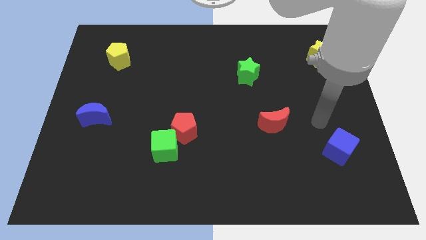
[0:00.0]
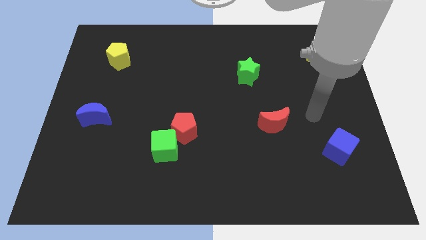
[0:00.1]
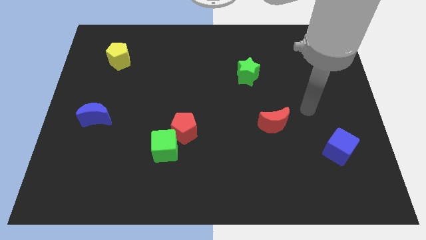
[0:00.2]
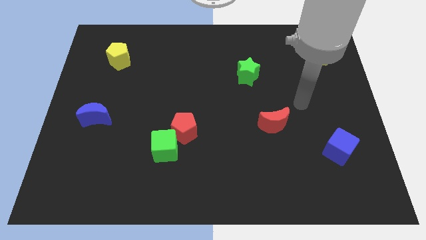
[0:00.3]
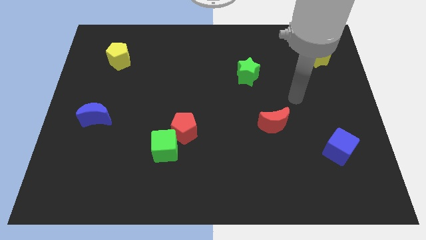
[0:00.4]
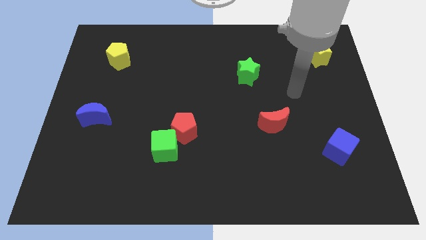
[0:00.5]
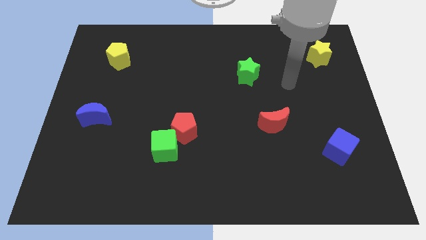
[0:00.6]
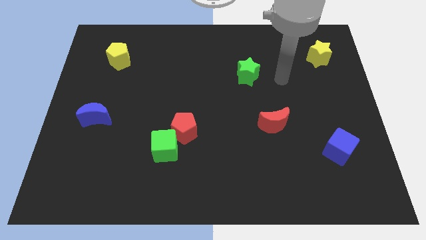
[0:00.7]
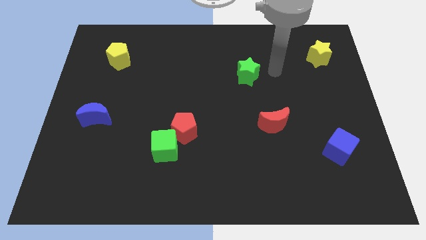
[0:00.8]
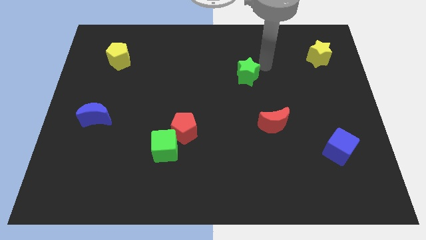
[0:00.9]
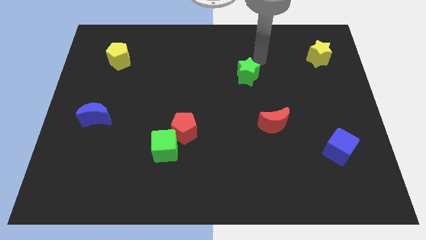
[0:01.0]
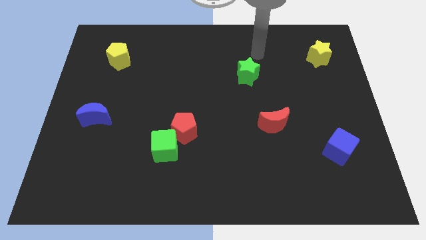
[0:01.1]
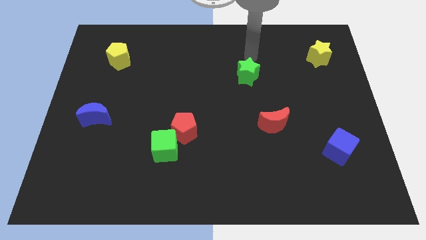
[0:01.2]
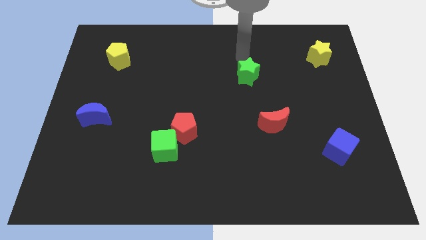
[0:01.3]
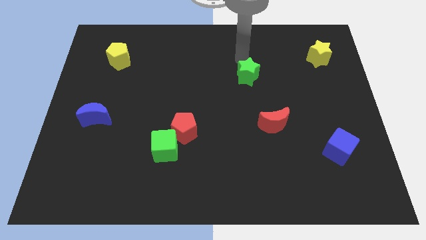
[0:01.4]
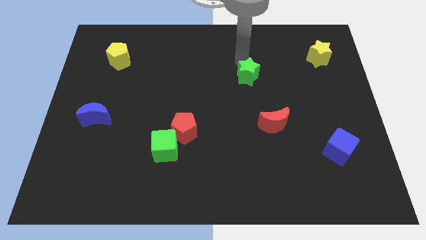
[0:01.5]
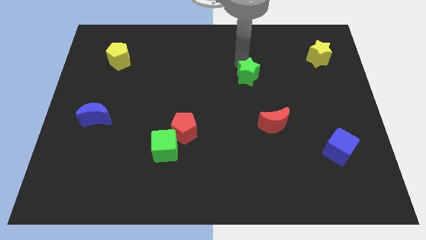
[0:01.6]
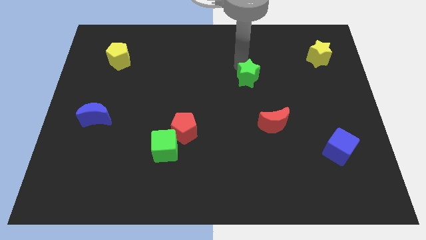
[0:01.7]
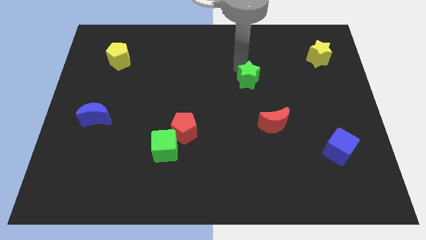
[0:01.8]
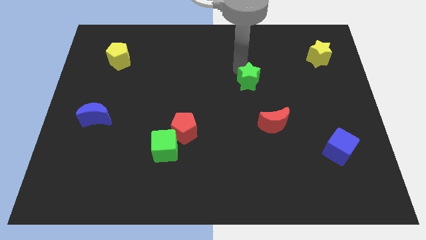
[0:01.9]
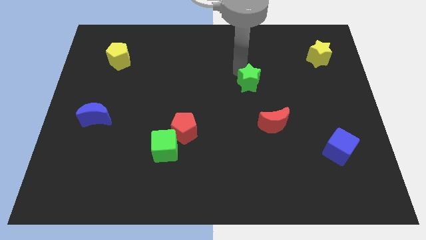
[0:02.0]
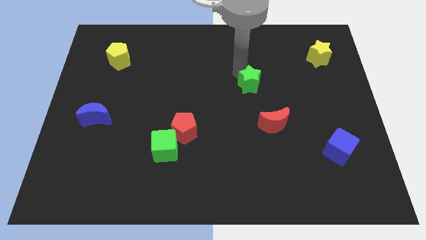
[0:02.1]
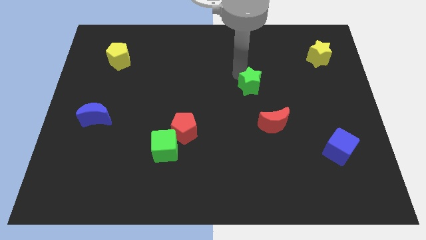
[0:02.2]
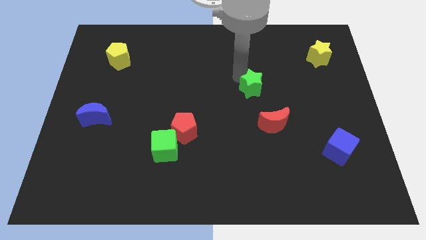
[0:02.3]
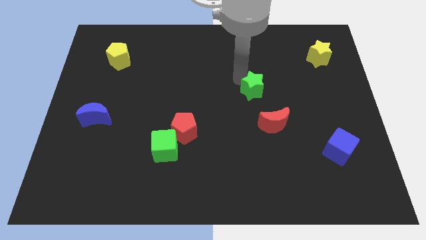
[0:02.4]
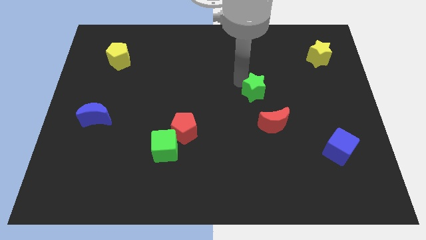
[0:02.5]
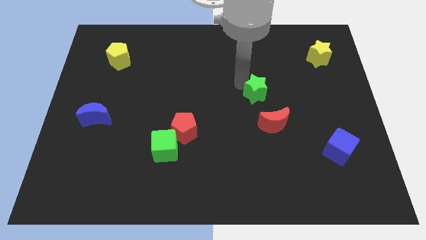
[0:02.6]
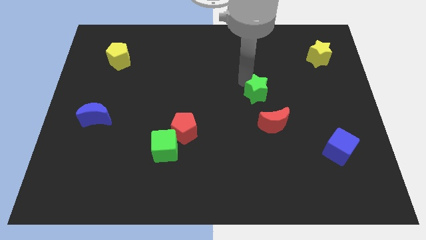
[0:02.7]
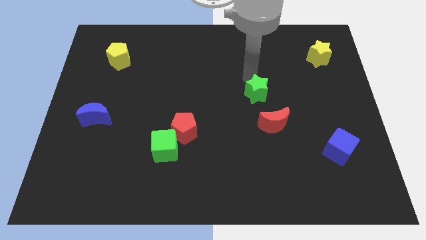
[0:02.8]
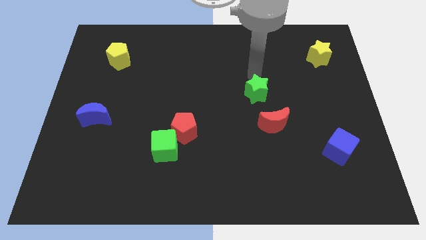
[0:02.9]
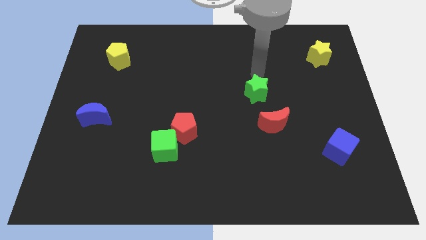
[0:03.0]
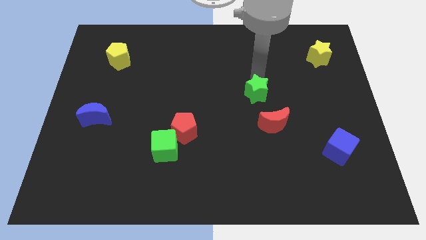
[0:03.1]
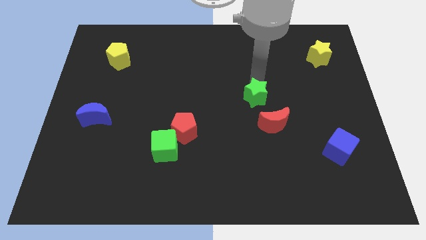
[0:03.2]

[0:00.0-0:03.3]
slide the green star a little bit downwards

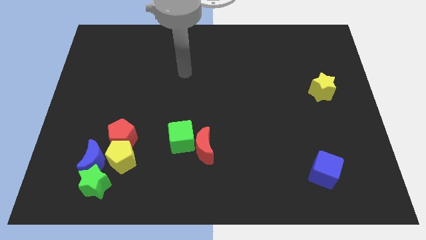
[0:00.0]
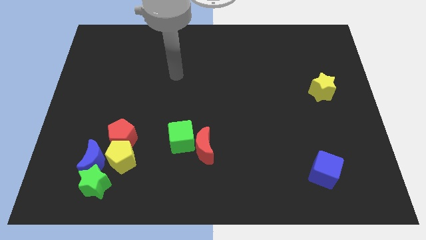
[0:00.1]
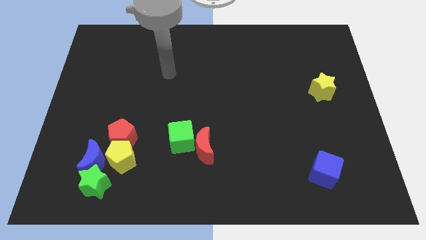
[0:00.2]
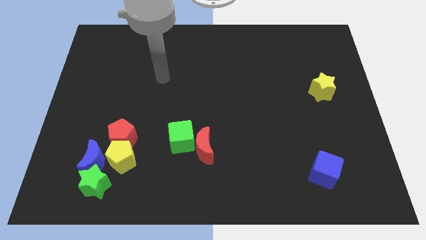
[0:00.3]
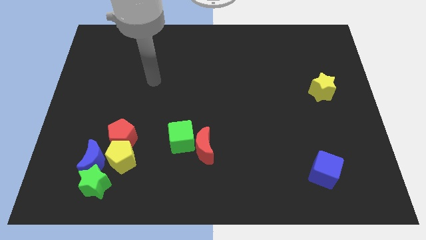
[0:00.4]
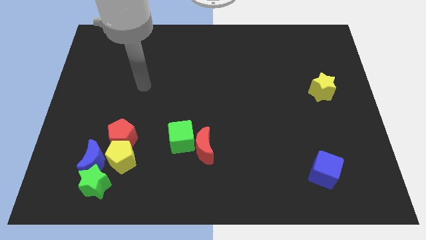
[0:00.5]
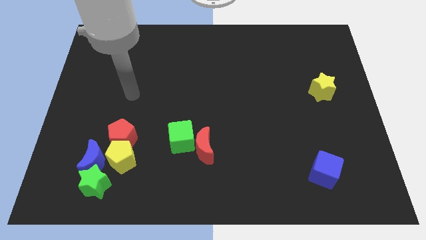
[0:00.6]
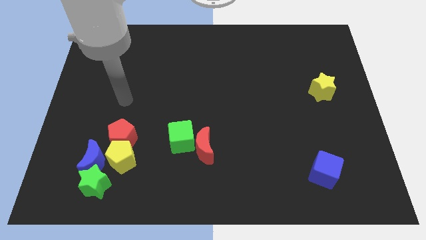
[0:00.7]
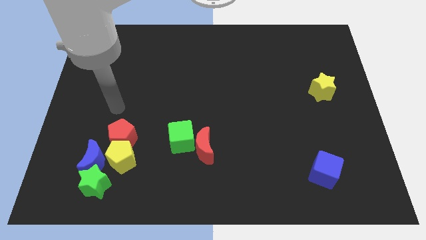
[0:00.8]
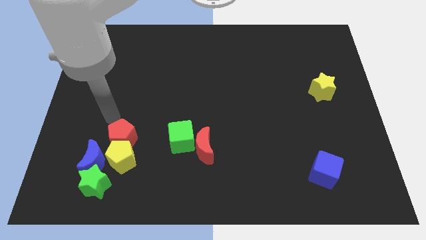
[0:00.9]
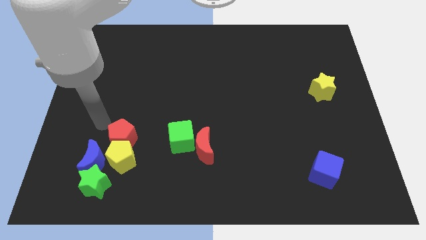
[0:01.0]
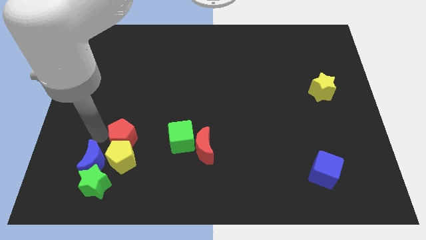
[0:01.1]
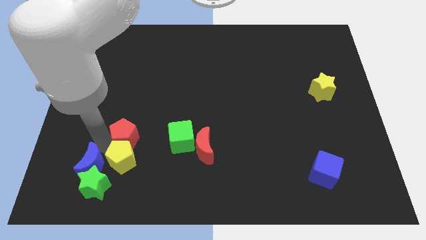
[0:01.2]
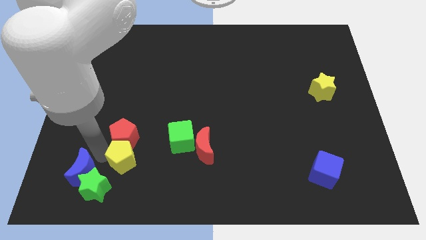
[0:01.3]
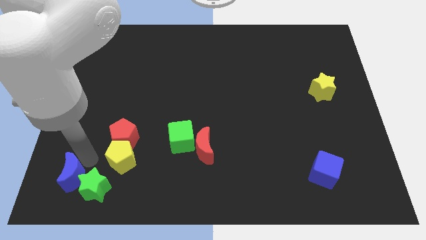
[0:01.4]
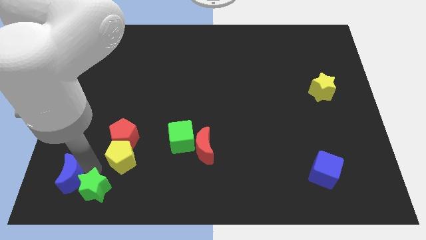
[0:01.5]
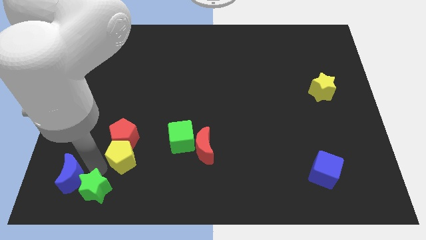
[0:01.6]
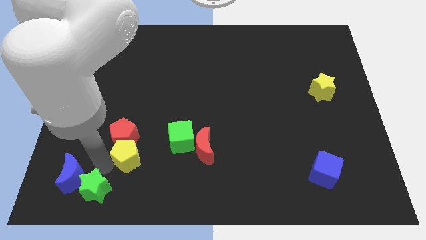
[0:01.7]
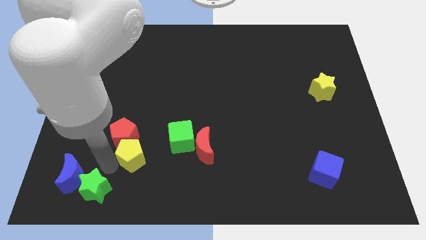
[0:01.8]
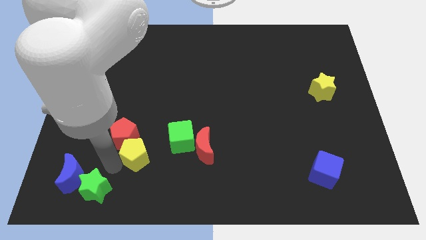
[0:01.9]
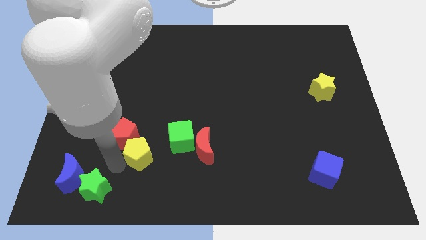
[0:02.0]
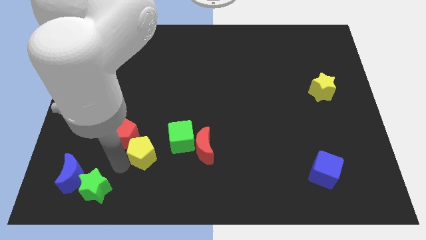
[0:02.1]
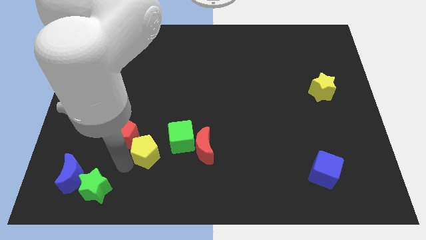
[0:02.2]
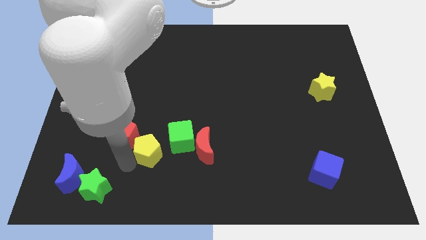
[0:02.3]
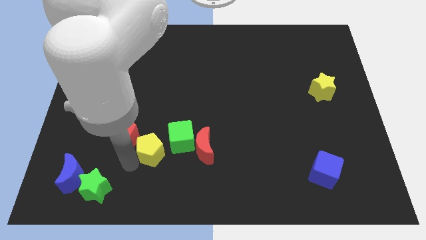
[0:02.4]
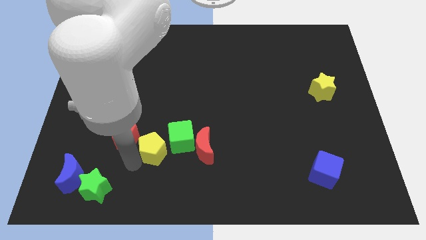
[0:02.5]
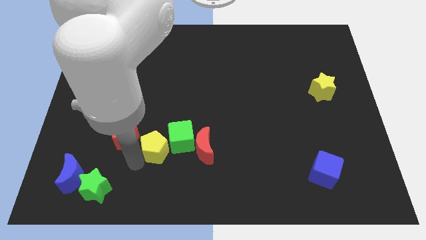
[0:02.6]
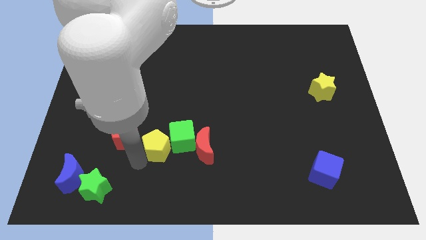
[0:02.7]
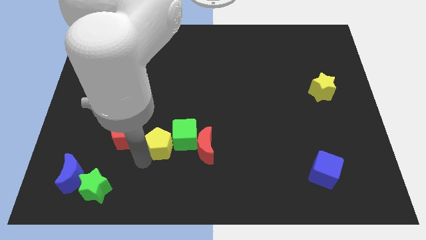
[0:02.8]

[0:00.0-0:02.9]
slightly slide the yellow pentagon upwards and then right

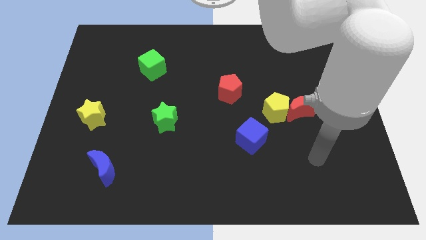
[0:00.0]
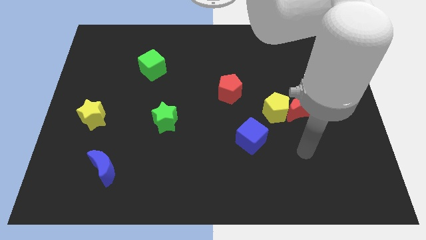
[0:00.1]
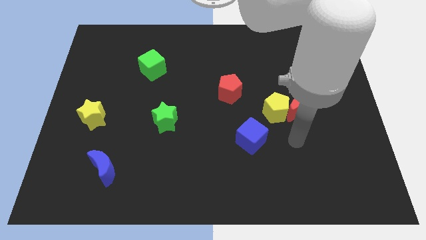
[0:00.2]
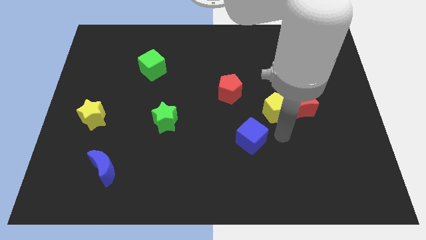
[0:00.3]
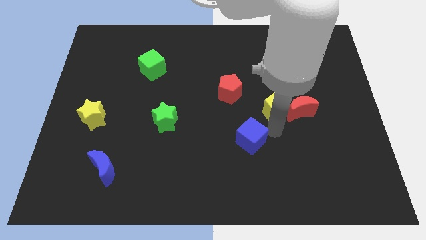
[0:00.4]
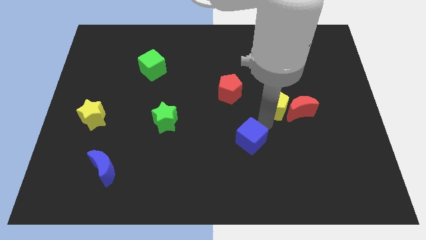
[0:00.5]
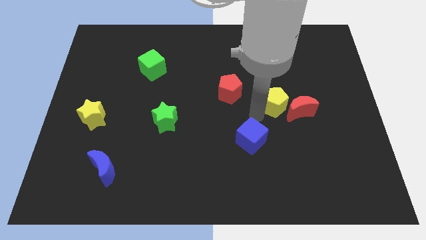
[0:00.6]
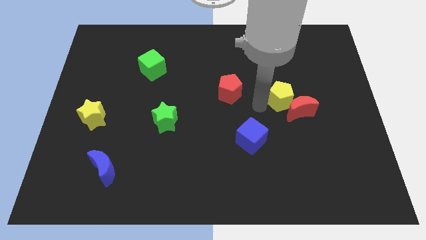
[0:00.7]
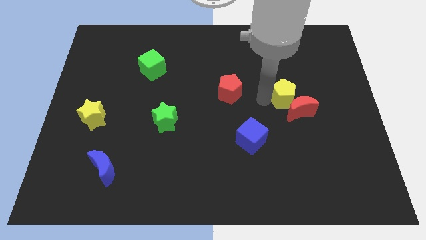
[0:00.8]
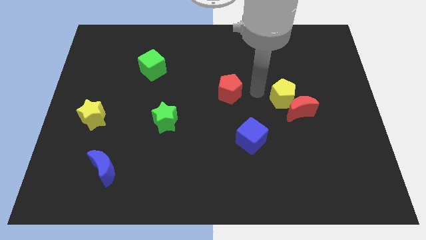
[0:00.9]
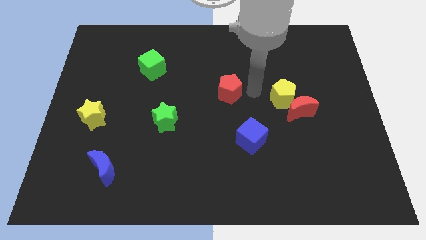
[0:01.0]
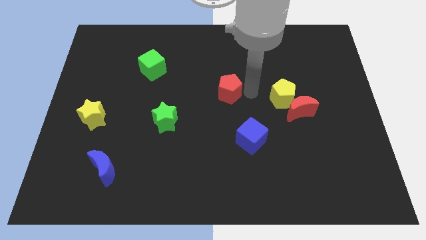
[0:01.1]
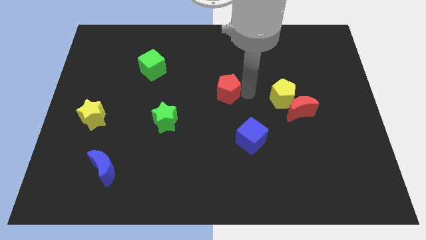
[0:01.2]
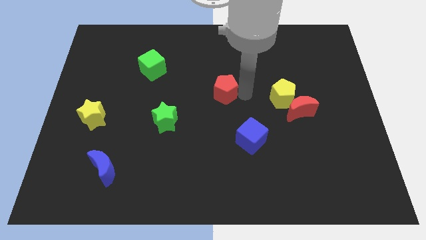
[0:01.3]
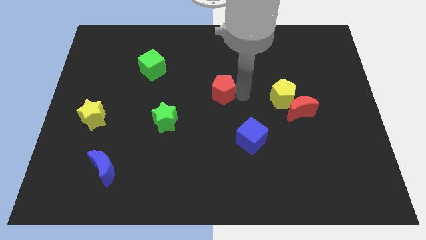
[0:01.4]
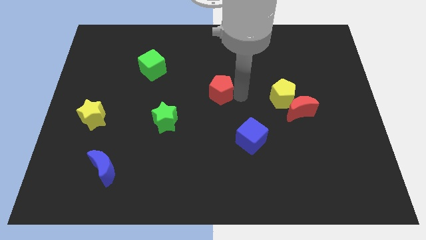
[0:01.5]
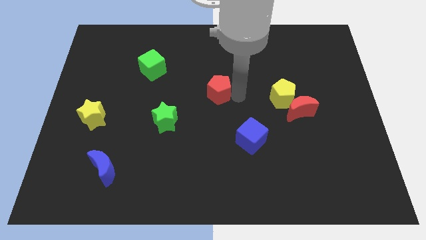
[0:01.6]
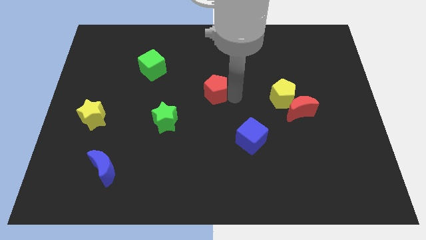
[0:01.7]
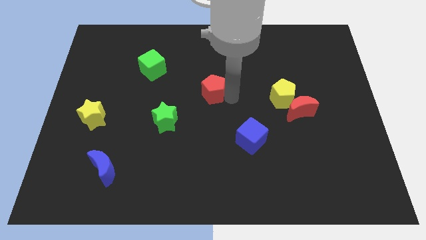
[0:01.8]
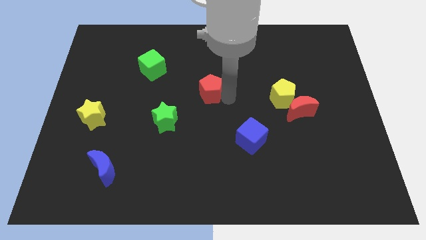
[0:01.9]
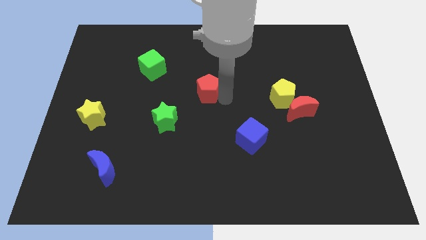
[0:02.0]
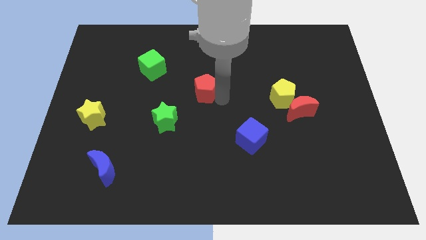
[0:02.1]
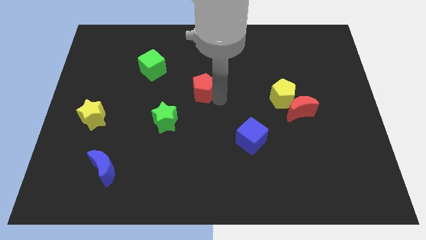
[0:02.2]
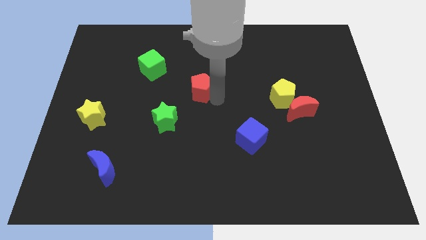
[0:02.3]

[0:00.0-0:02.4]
push the red pentagon a little bit left
